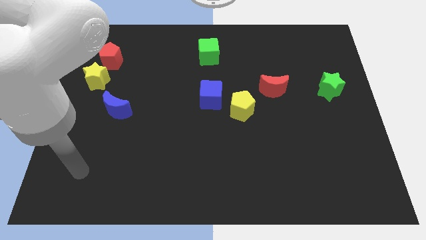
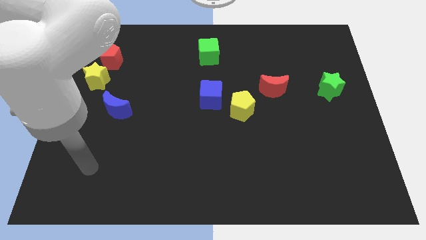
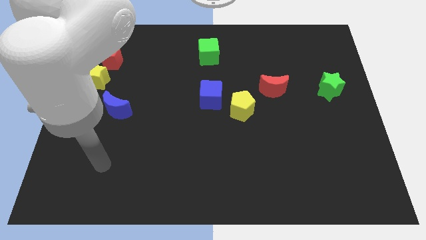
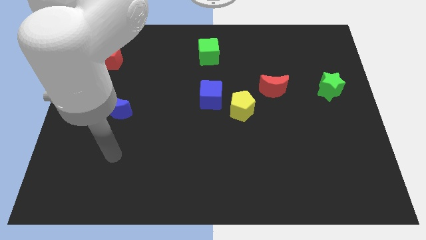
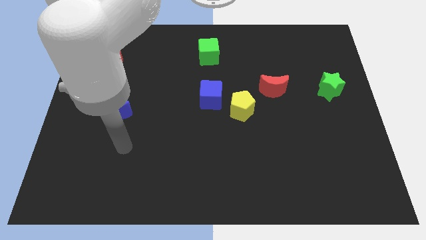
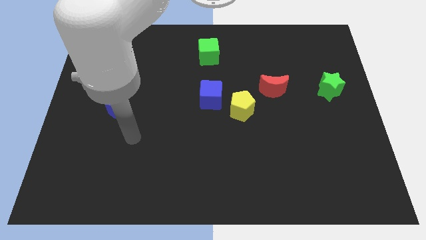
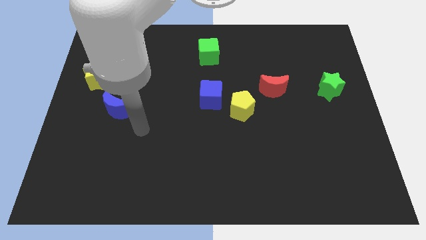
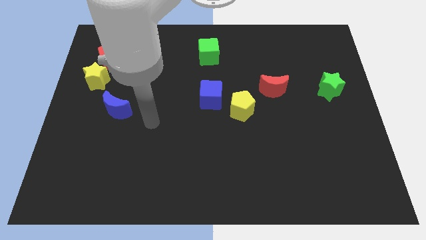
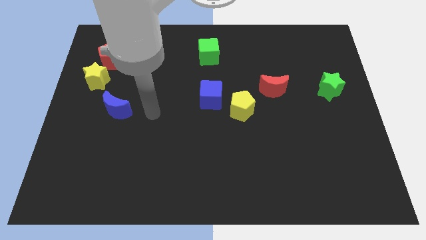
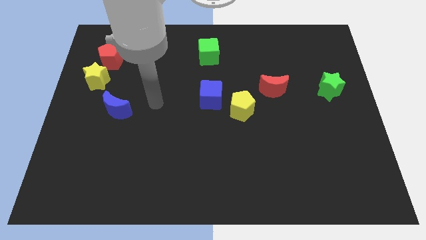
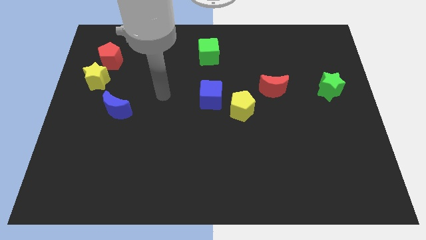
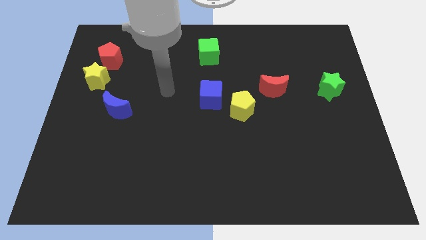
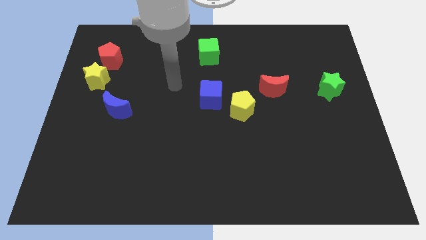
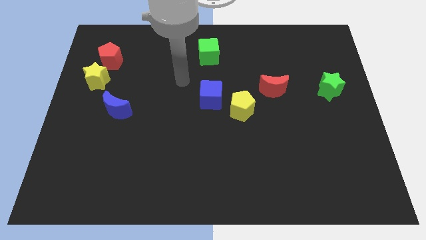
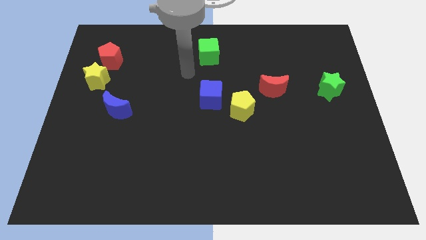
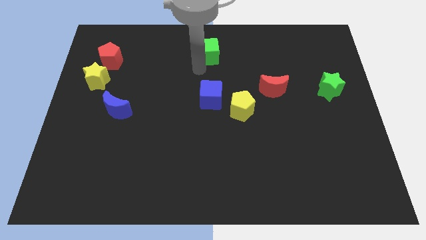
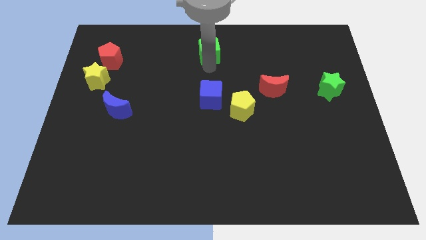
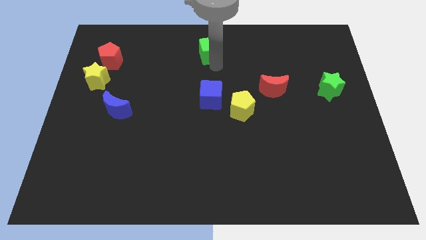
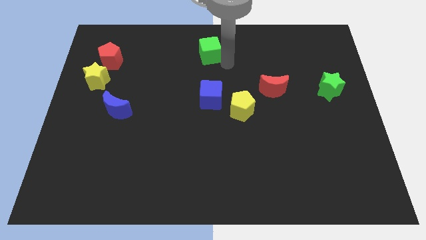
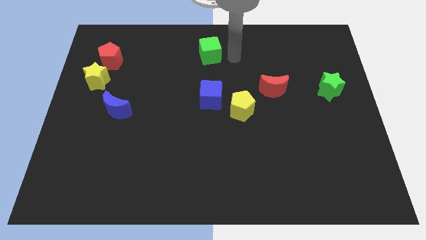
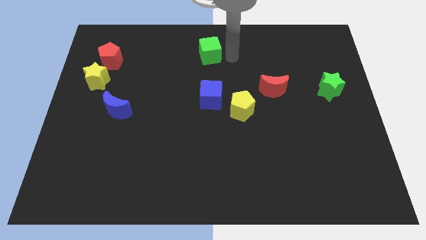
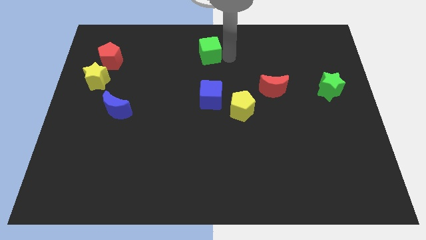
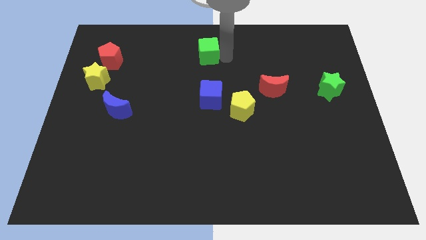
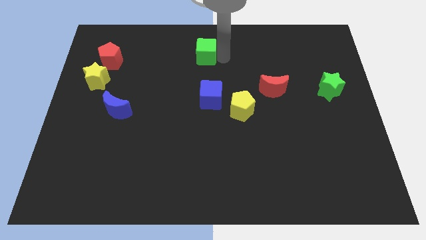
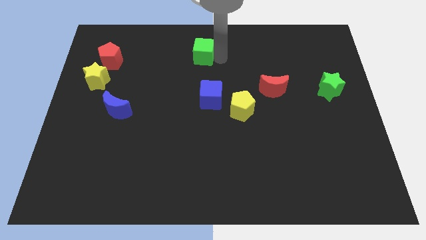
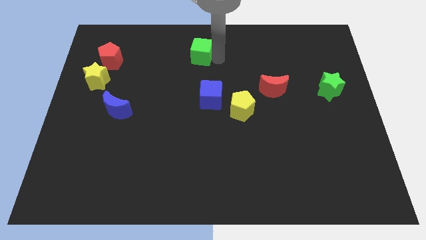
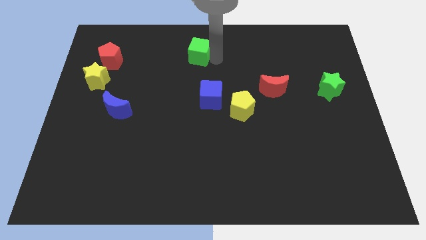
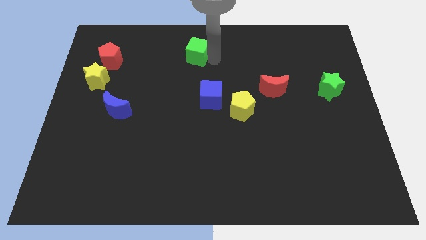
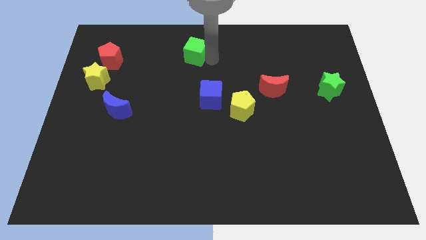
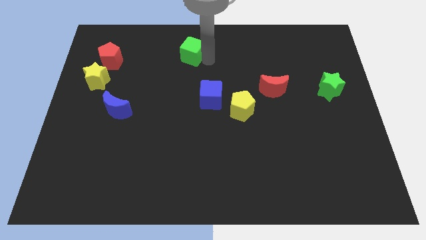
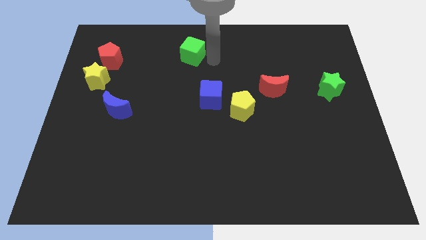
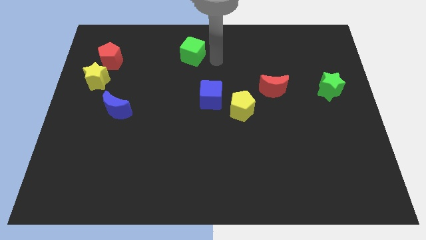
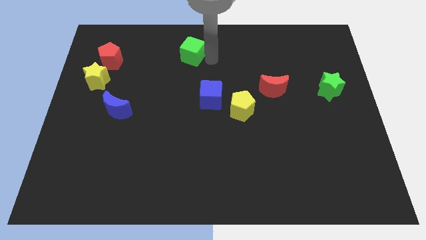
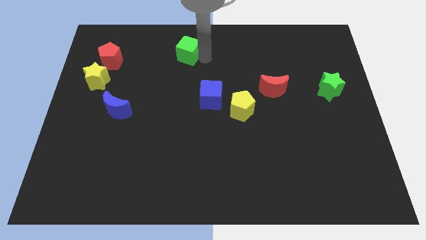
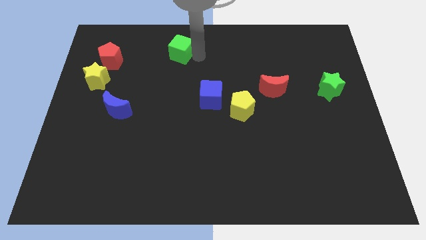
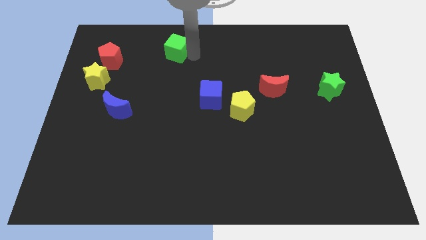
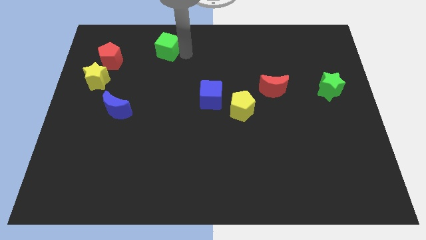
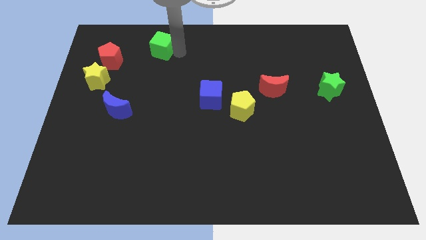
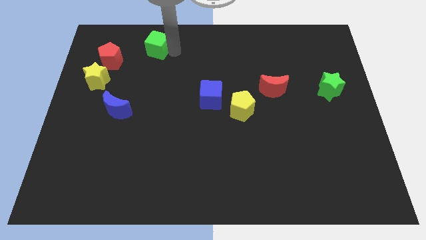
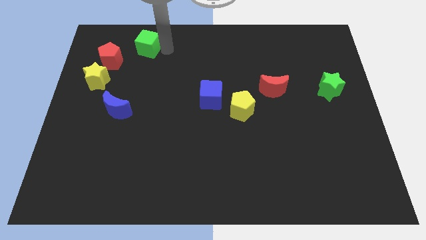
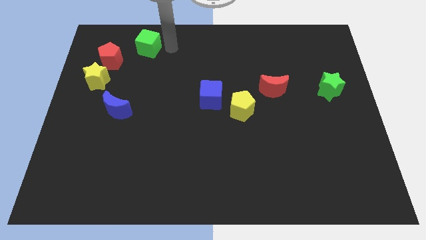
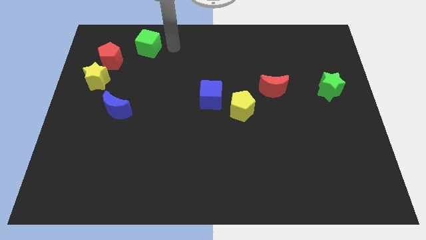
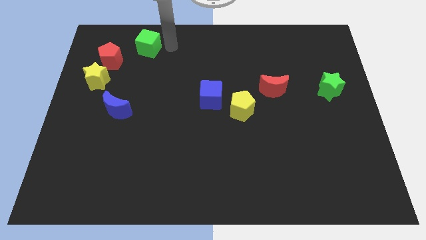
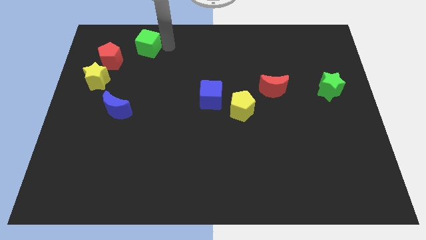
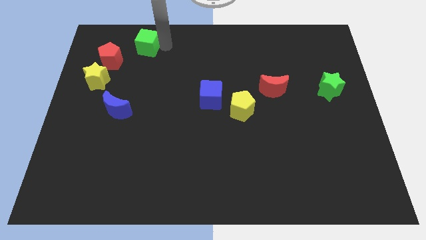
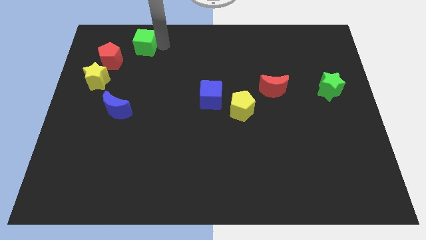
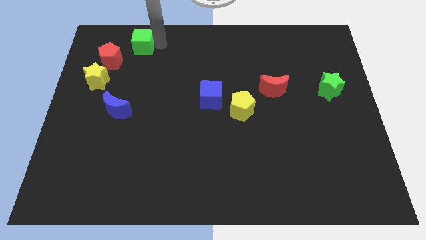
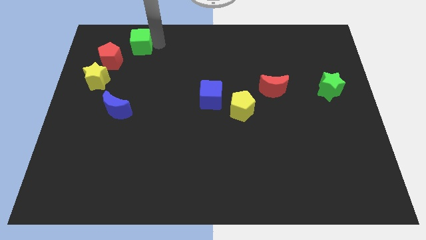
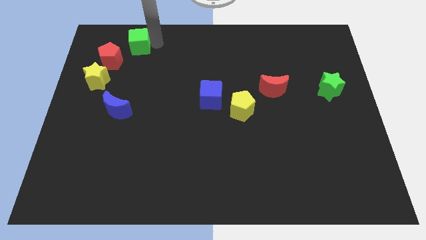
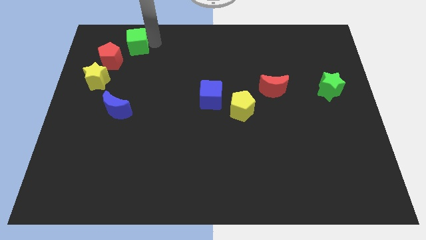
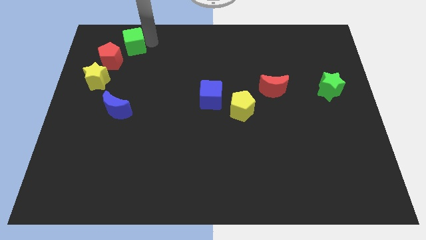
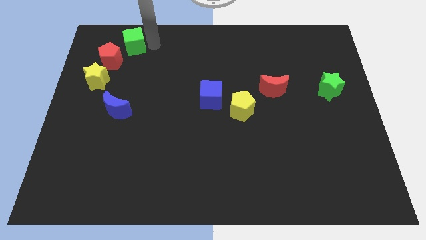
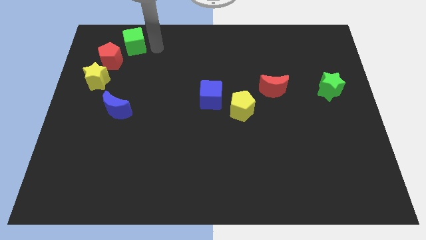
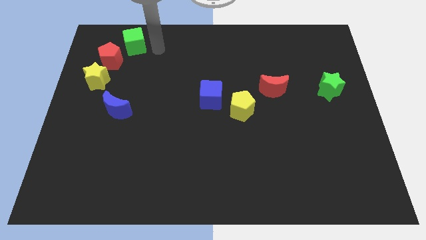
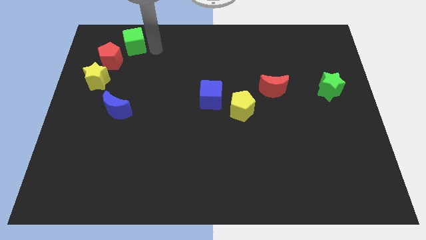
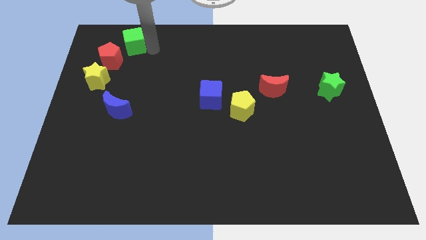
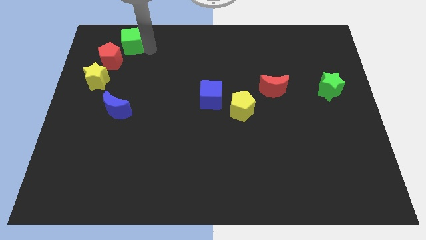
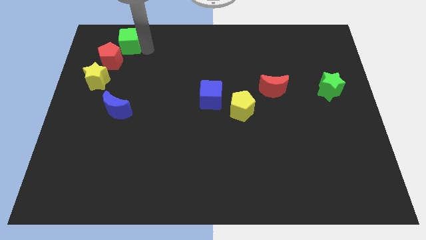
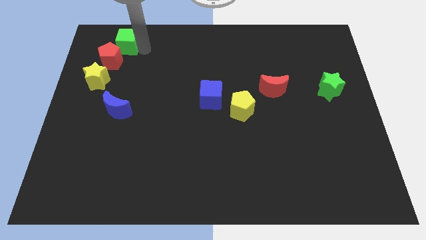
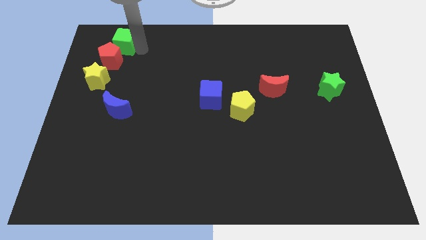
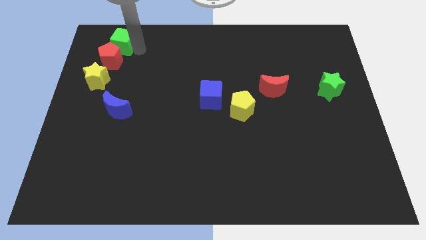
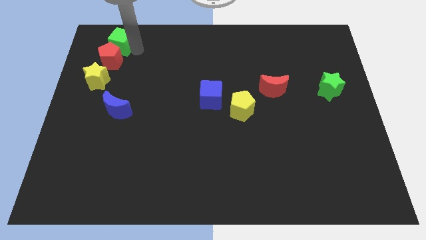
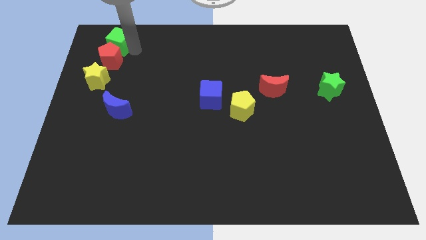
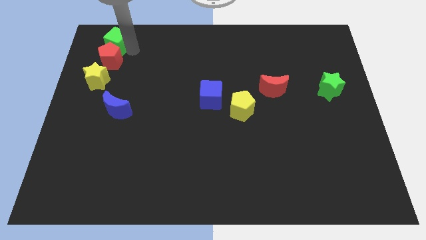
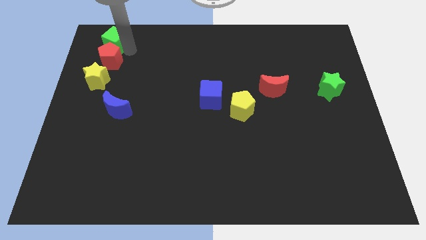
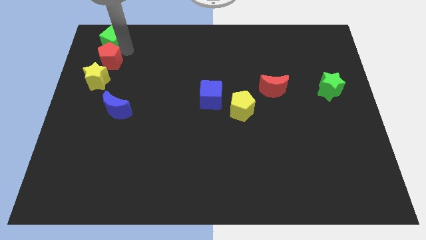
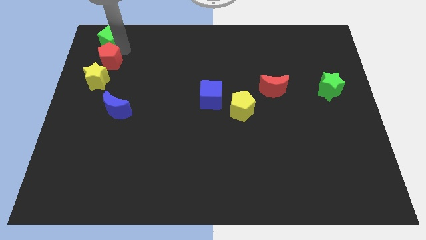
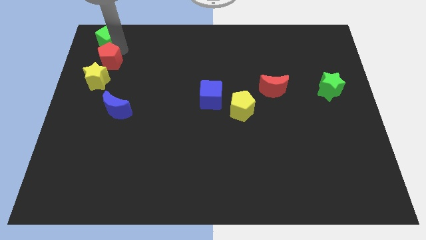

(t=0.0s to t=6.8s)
put the green cube to the top left
